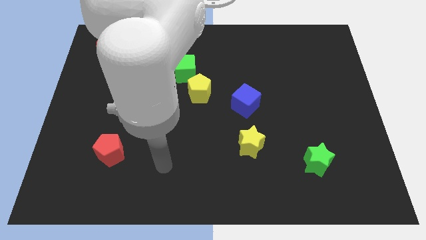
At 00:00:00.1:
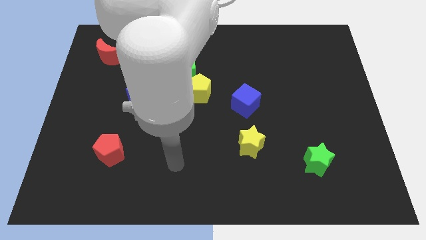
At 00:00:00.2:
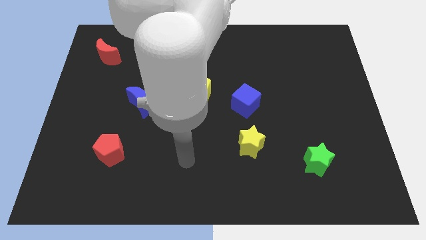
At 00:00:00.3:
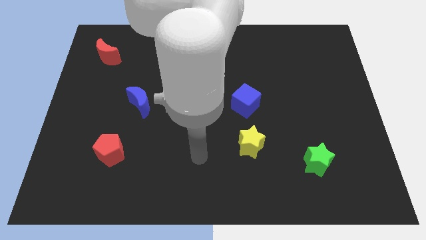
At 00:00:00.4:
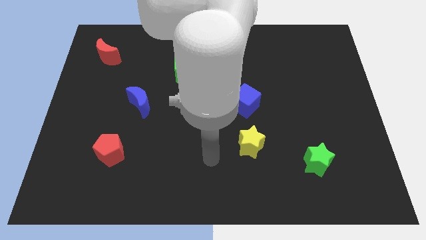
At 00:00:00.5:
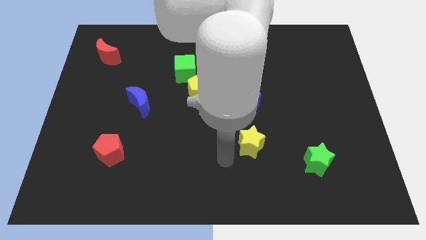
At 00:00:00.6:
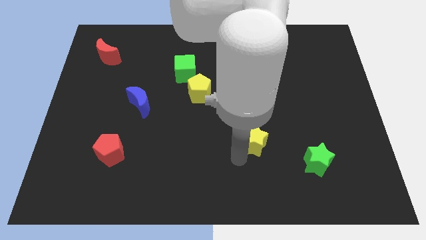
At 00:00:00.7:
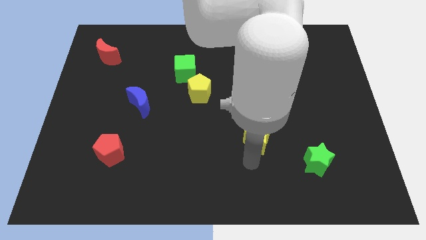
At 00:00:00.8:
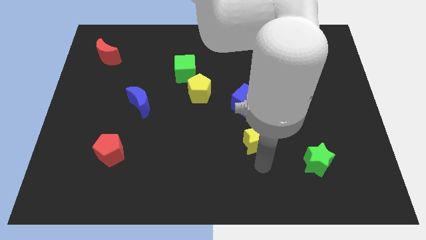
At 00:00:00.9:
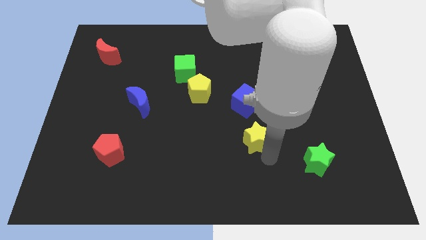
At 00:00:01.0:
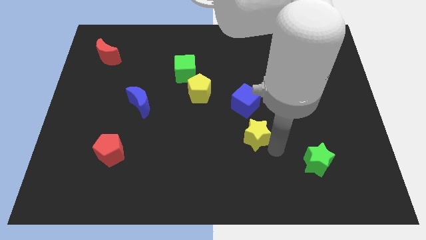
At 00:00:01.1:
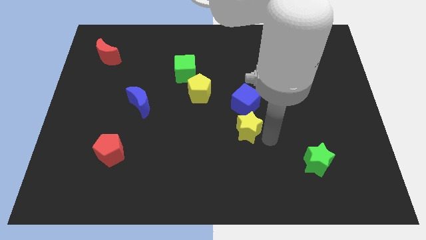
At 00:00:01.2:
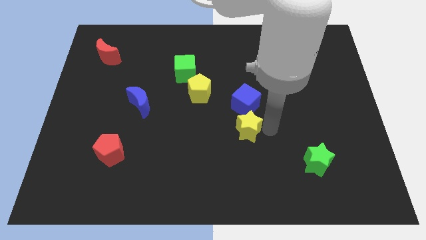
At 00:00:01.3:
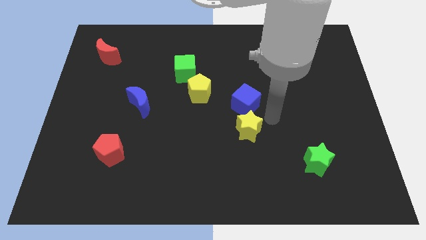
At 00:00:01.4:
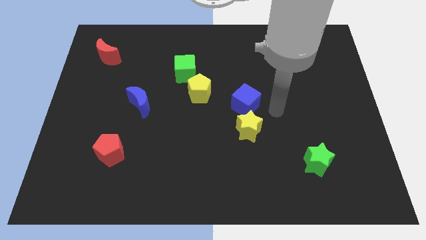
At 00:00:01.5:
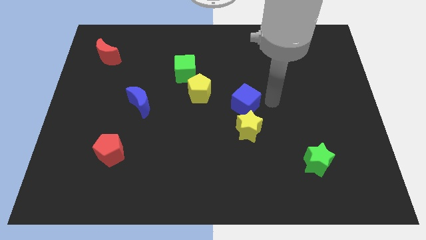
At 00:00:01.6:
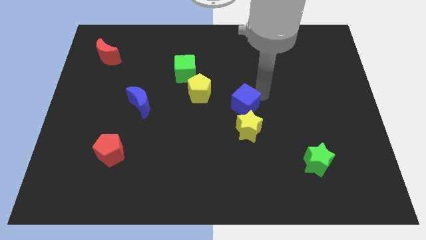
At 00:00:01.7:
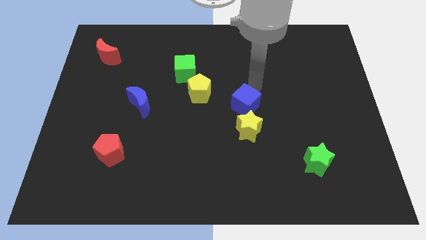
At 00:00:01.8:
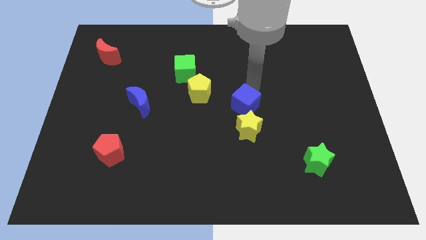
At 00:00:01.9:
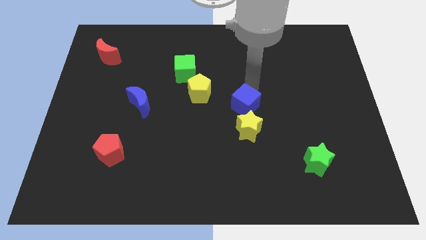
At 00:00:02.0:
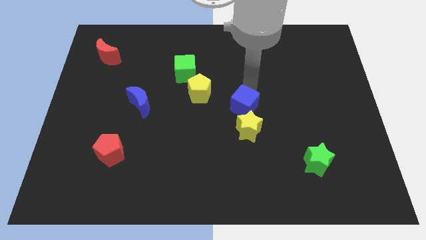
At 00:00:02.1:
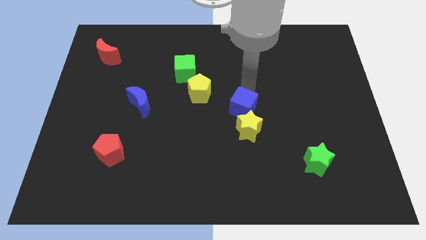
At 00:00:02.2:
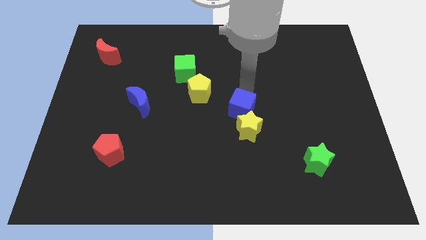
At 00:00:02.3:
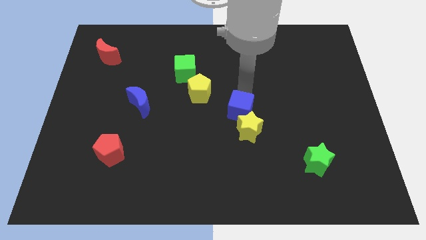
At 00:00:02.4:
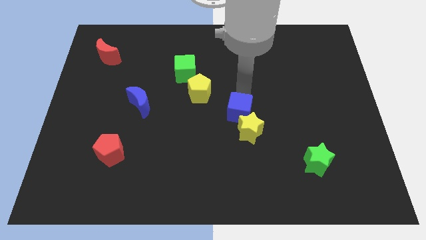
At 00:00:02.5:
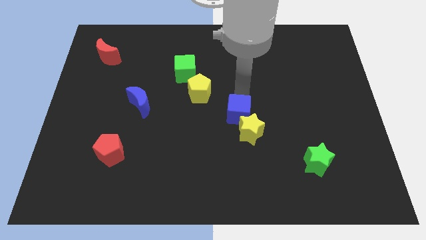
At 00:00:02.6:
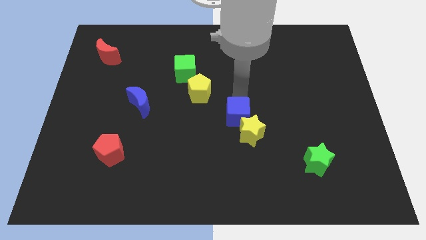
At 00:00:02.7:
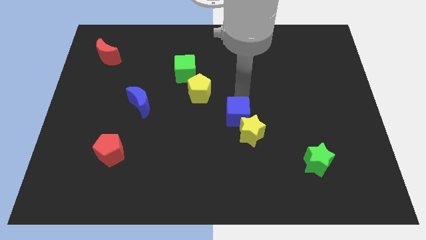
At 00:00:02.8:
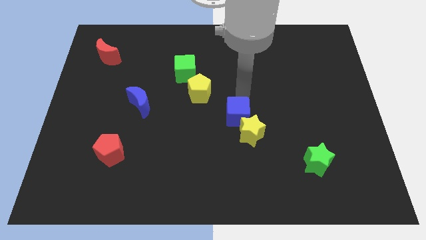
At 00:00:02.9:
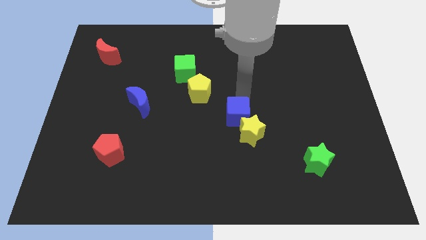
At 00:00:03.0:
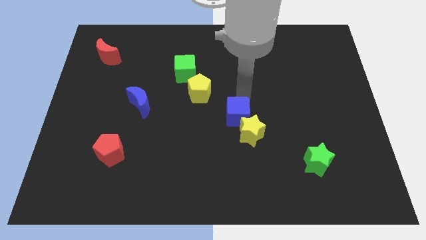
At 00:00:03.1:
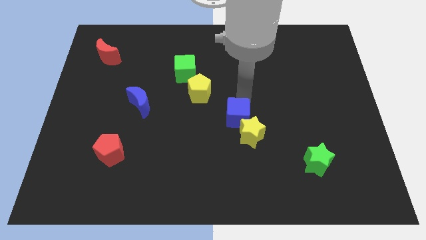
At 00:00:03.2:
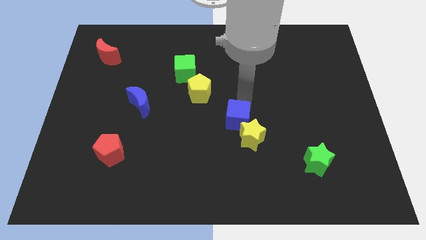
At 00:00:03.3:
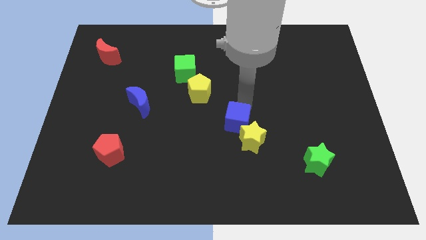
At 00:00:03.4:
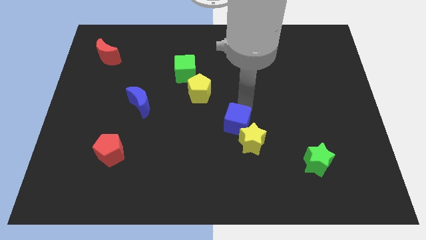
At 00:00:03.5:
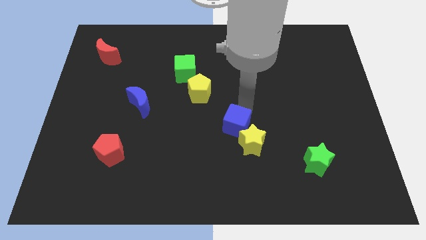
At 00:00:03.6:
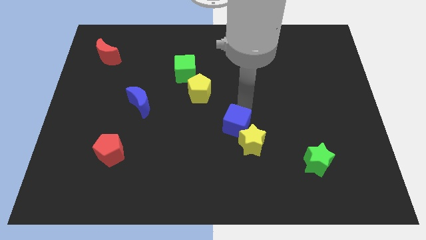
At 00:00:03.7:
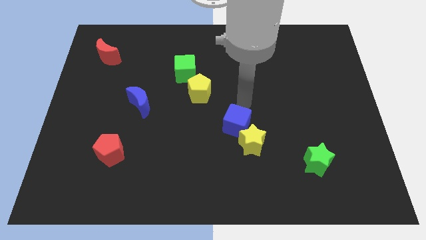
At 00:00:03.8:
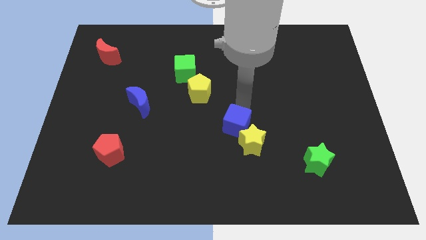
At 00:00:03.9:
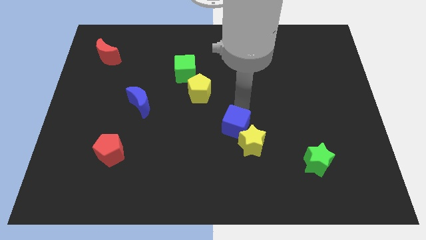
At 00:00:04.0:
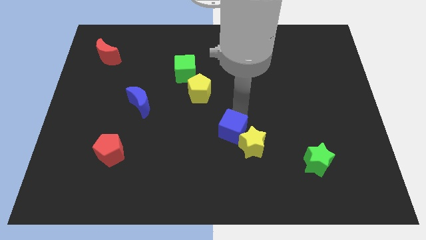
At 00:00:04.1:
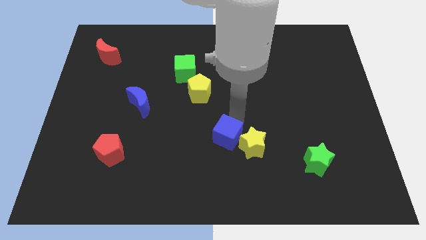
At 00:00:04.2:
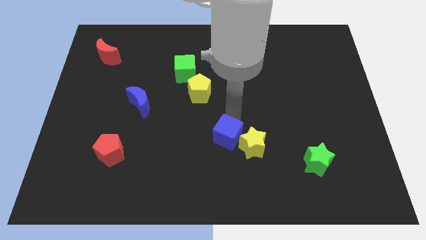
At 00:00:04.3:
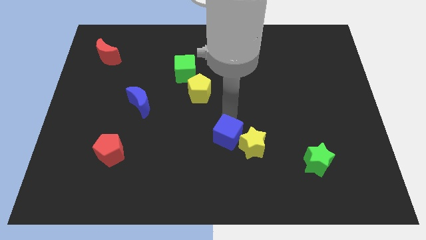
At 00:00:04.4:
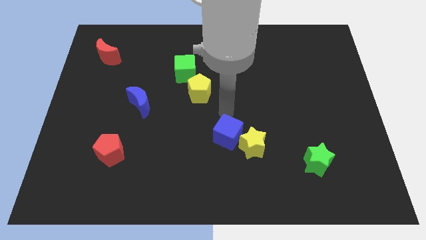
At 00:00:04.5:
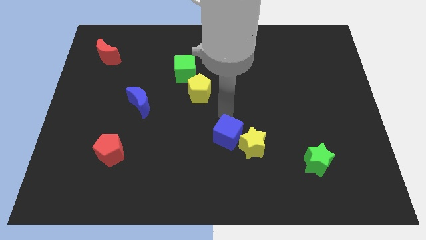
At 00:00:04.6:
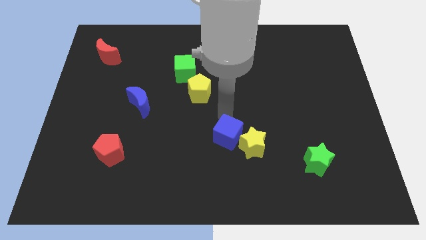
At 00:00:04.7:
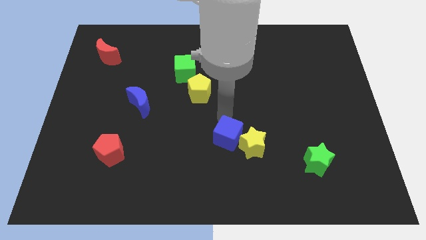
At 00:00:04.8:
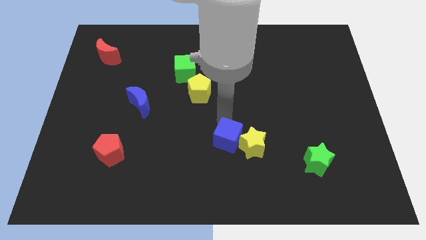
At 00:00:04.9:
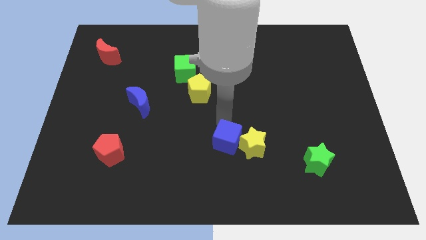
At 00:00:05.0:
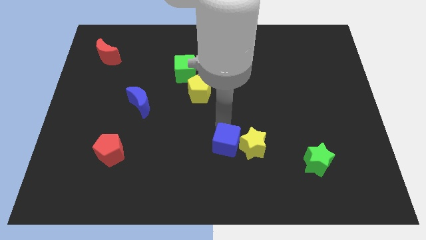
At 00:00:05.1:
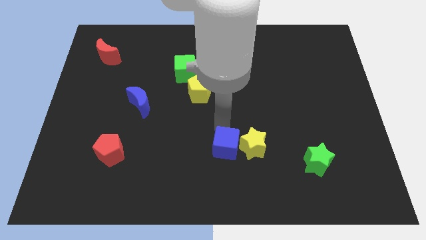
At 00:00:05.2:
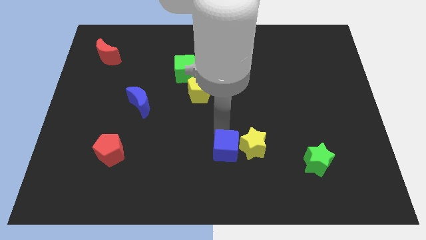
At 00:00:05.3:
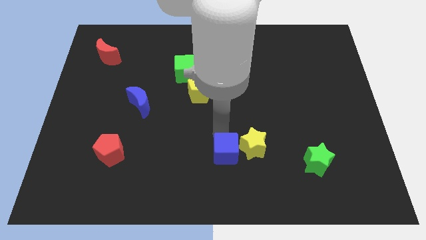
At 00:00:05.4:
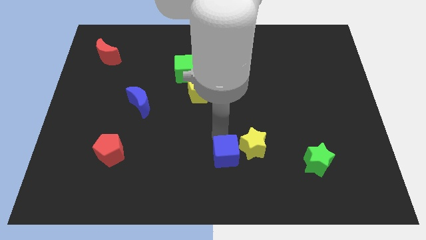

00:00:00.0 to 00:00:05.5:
put the blue cube to the bottom side
